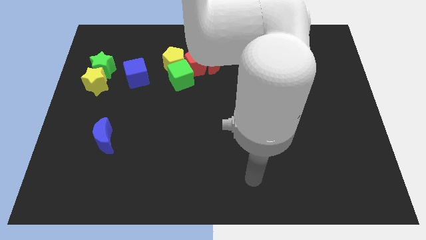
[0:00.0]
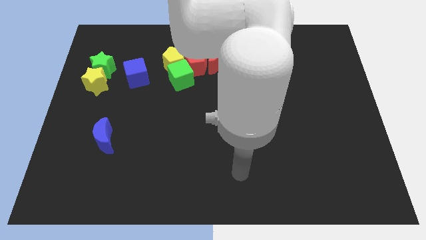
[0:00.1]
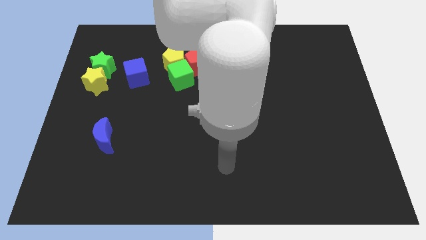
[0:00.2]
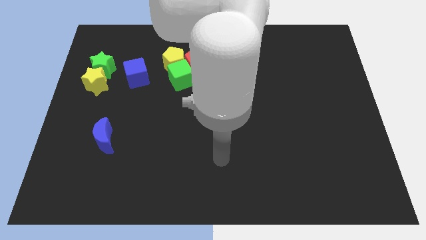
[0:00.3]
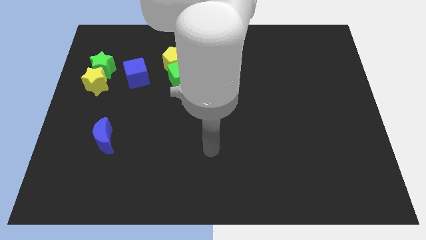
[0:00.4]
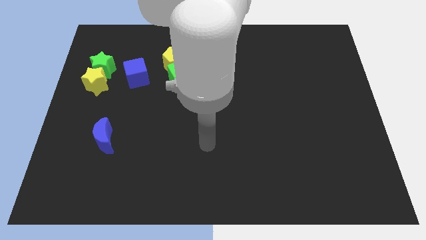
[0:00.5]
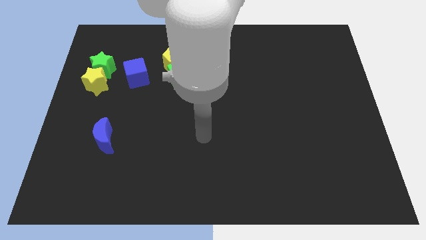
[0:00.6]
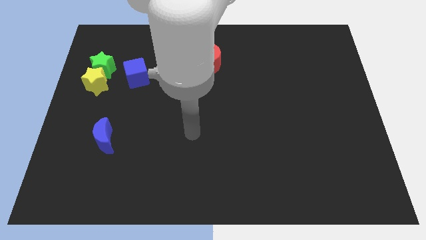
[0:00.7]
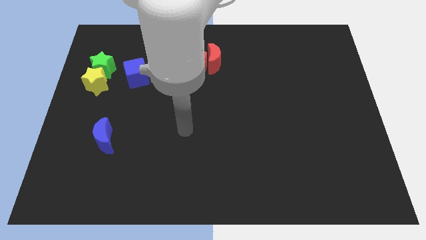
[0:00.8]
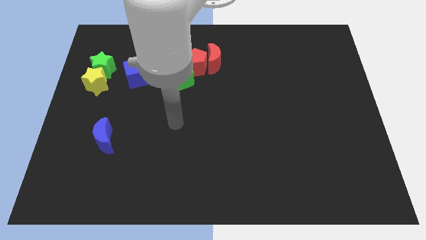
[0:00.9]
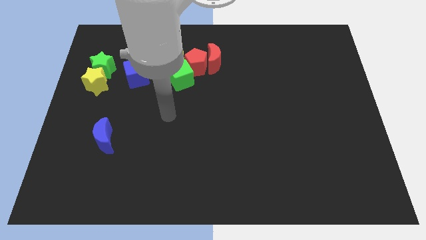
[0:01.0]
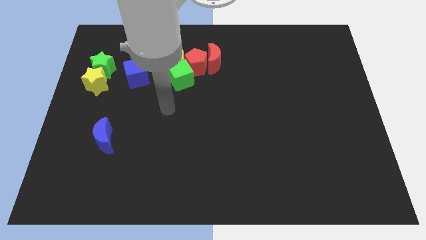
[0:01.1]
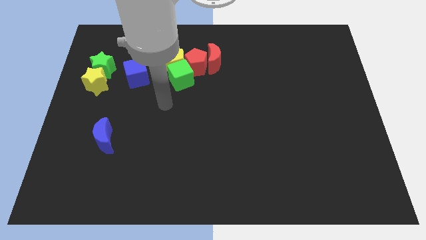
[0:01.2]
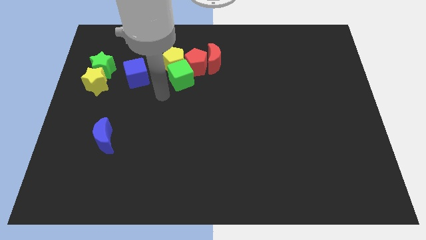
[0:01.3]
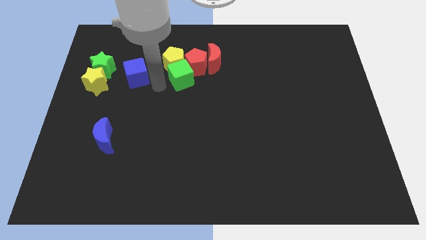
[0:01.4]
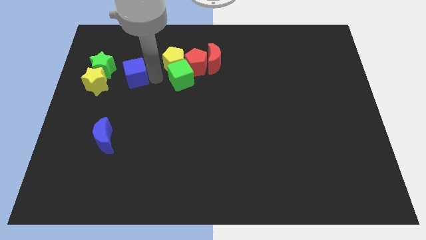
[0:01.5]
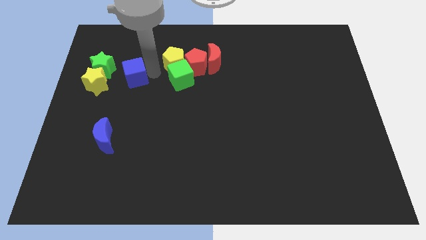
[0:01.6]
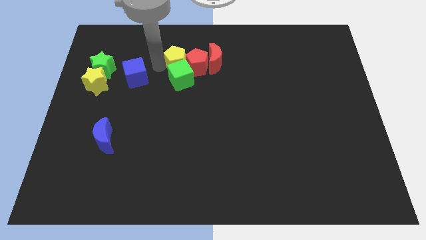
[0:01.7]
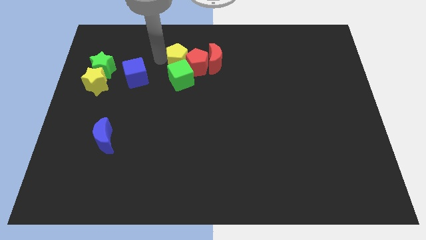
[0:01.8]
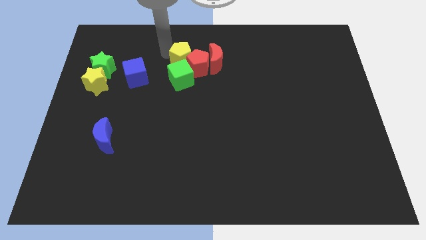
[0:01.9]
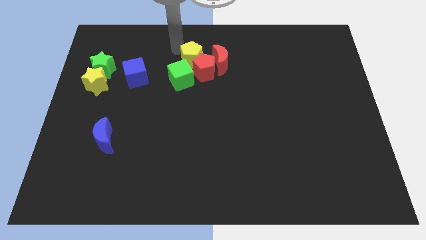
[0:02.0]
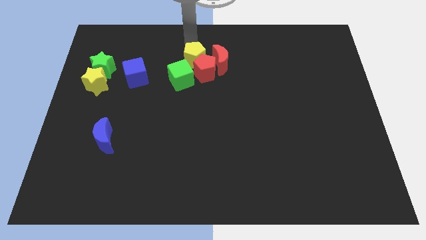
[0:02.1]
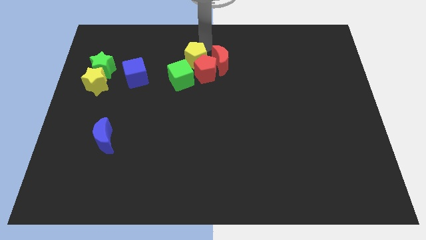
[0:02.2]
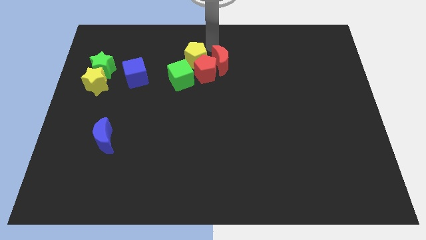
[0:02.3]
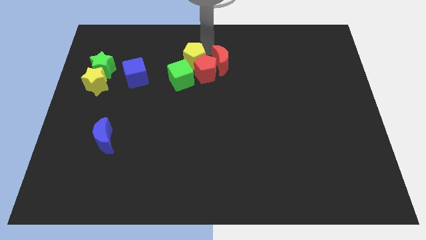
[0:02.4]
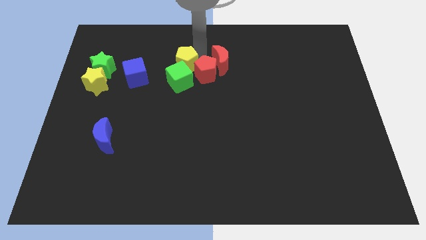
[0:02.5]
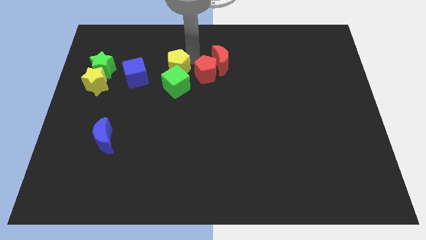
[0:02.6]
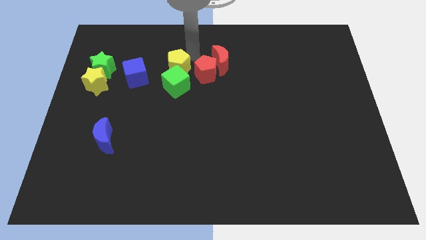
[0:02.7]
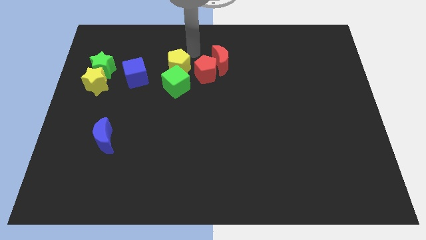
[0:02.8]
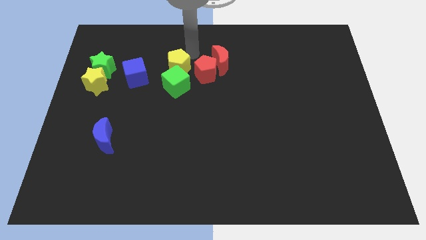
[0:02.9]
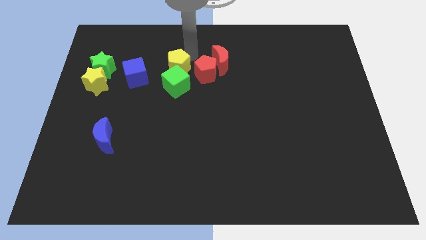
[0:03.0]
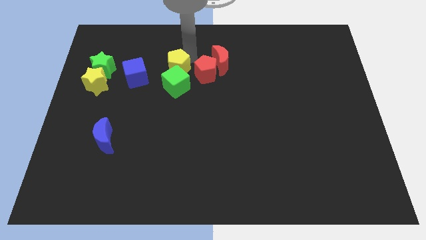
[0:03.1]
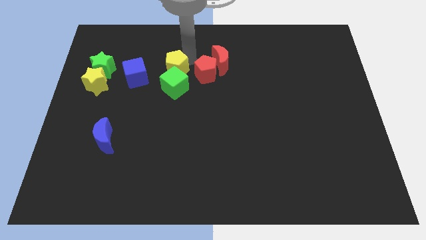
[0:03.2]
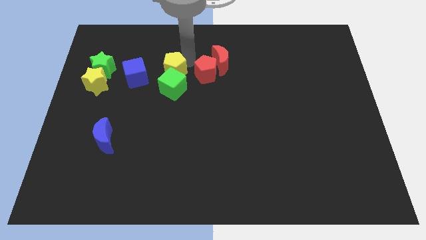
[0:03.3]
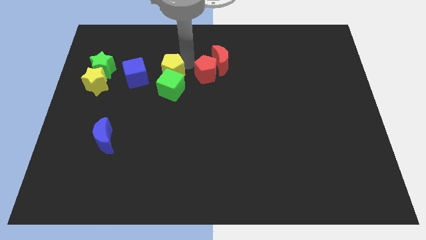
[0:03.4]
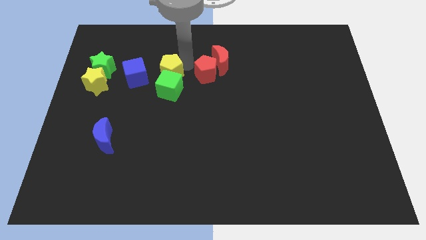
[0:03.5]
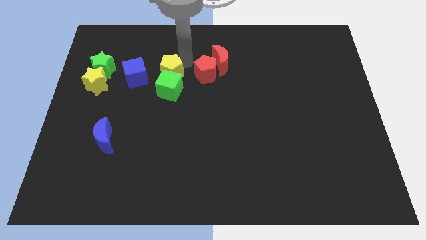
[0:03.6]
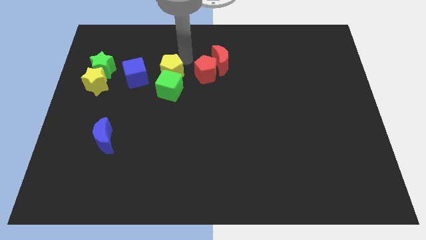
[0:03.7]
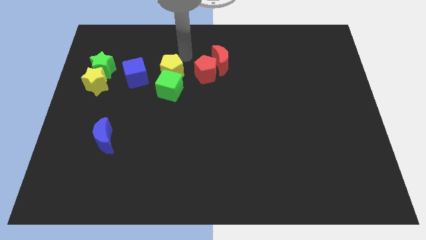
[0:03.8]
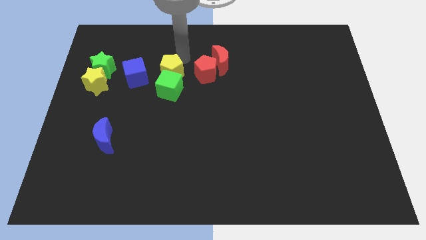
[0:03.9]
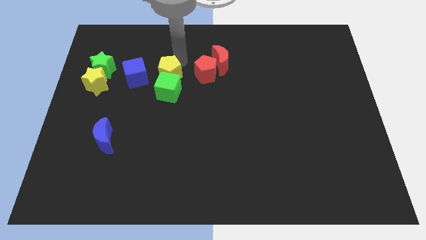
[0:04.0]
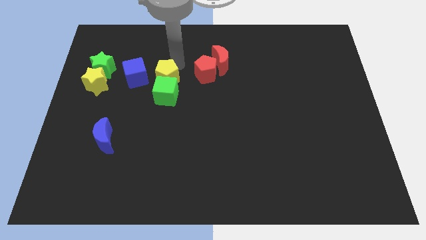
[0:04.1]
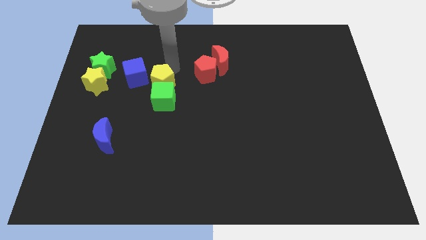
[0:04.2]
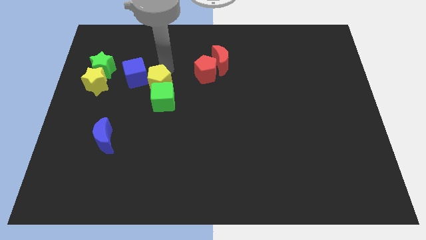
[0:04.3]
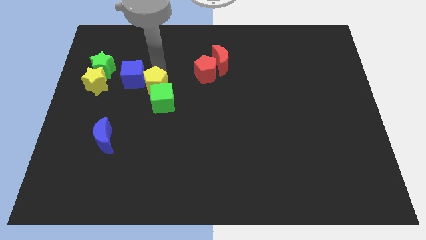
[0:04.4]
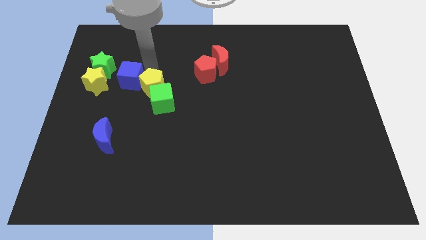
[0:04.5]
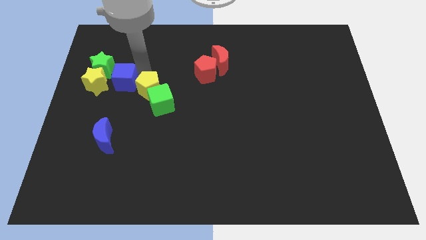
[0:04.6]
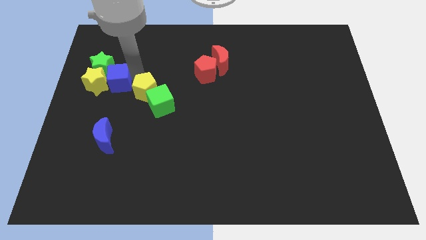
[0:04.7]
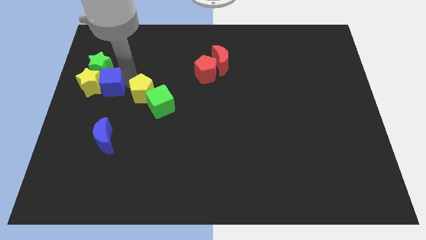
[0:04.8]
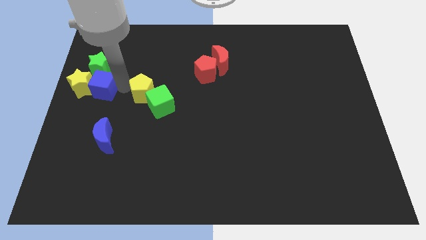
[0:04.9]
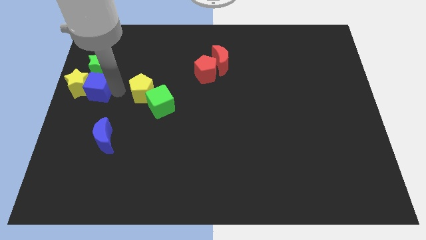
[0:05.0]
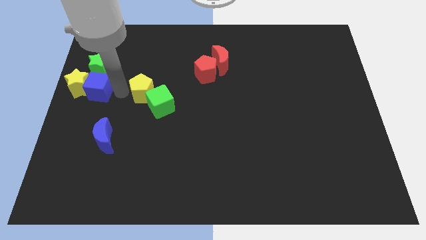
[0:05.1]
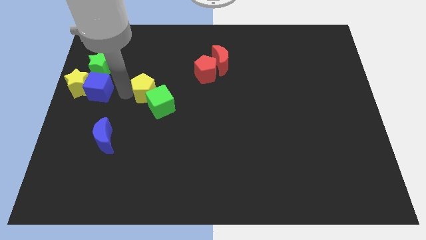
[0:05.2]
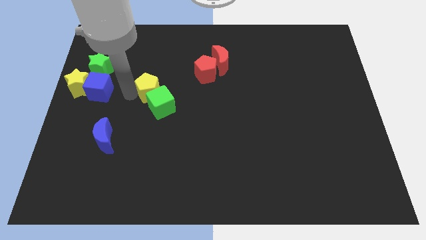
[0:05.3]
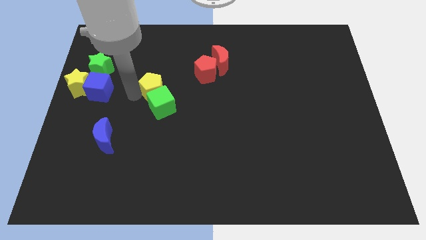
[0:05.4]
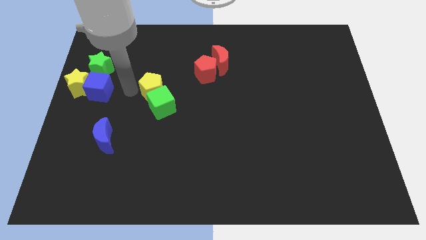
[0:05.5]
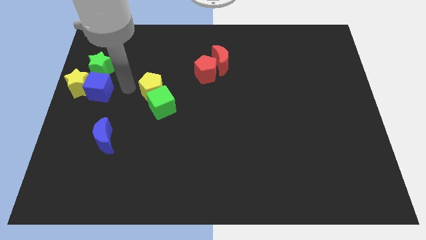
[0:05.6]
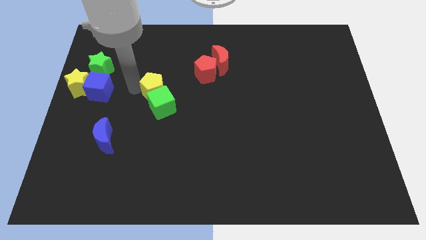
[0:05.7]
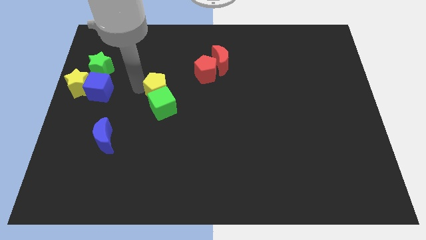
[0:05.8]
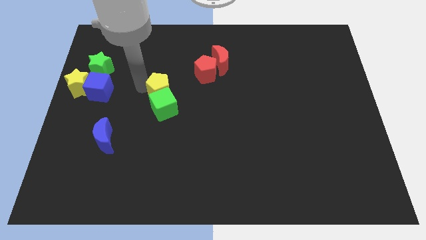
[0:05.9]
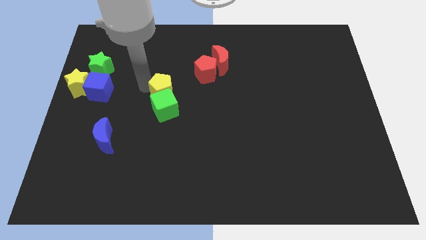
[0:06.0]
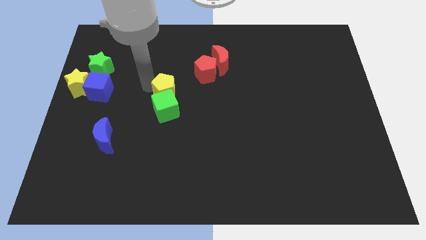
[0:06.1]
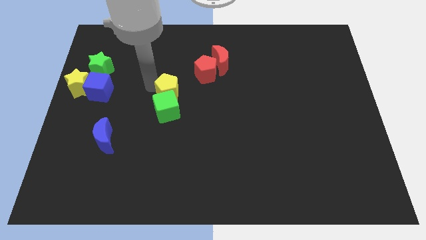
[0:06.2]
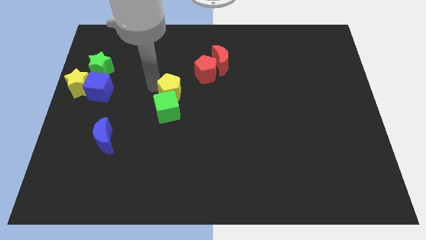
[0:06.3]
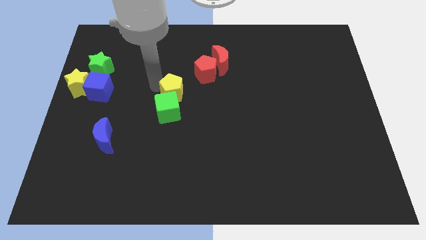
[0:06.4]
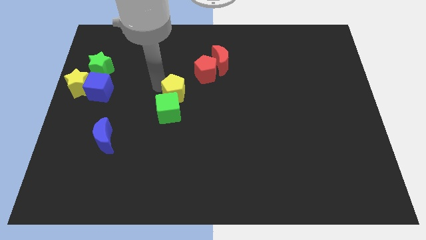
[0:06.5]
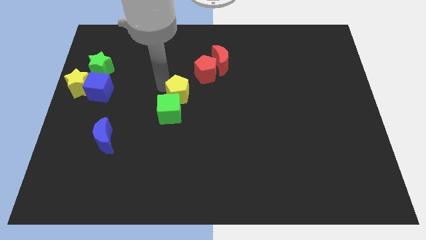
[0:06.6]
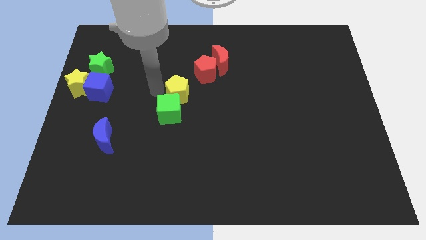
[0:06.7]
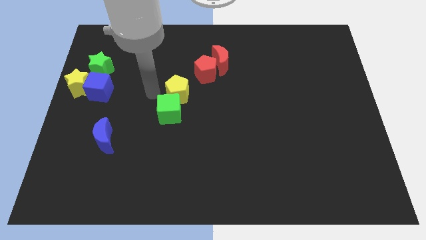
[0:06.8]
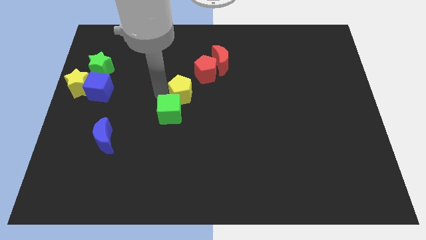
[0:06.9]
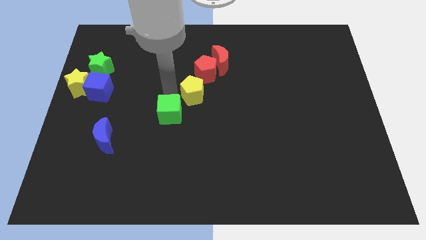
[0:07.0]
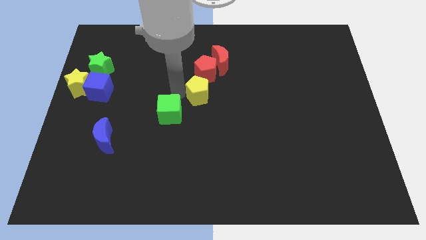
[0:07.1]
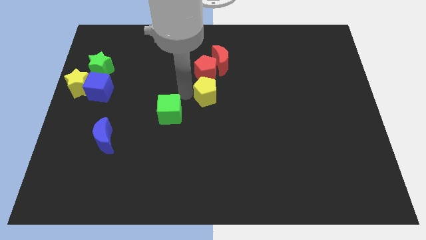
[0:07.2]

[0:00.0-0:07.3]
slide the yellow pentagon below the red moon
